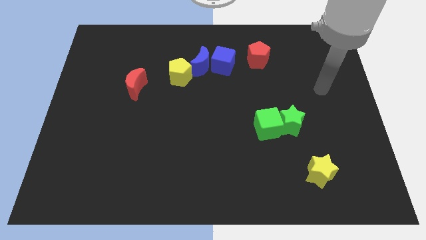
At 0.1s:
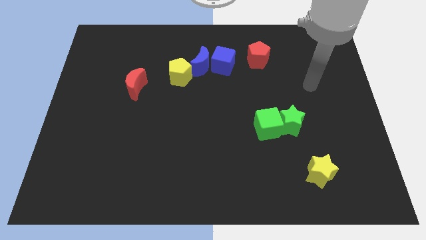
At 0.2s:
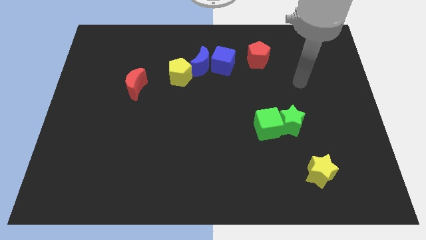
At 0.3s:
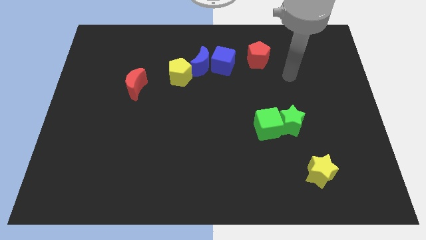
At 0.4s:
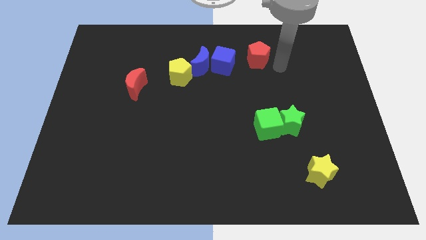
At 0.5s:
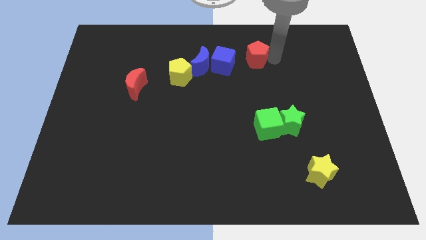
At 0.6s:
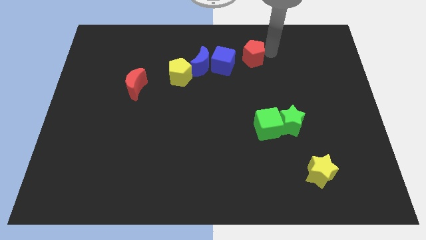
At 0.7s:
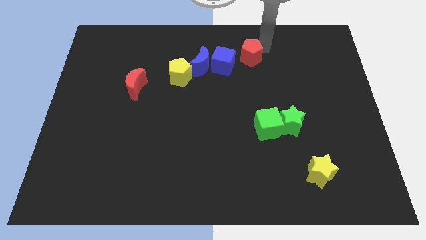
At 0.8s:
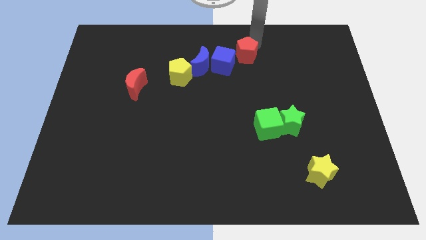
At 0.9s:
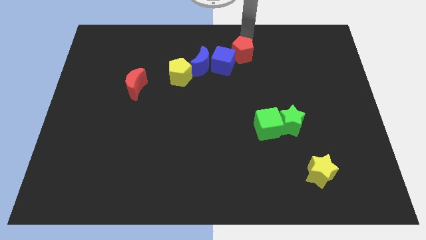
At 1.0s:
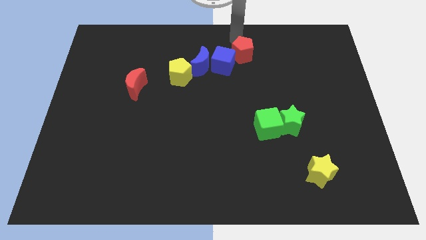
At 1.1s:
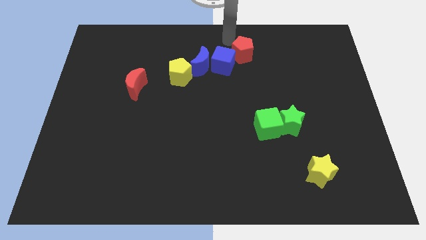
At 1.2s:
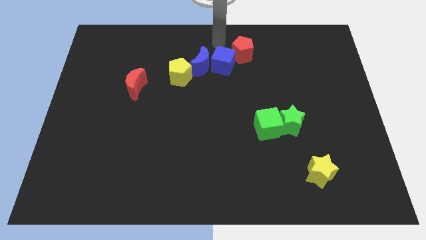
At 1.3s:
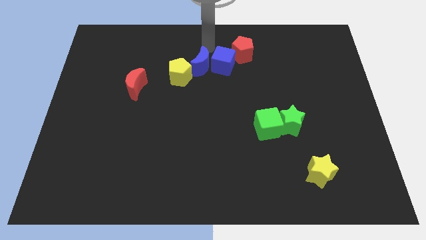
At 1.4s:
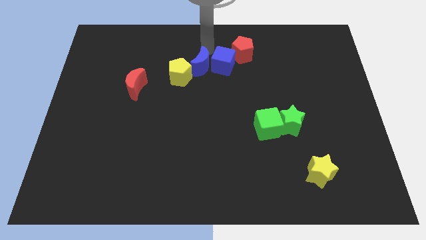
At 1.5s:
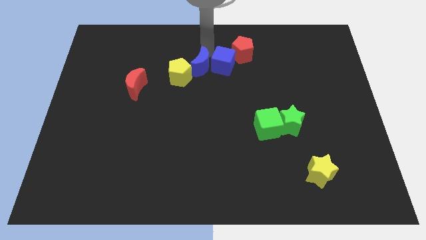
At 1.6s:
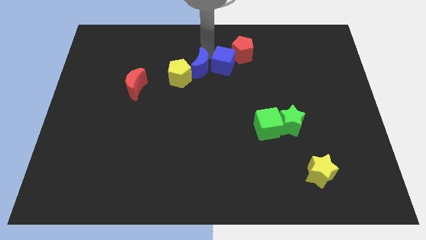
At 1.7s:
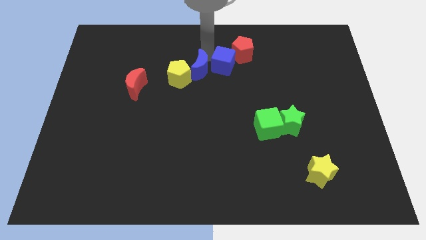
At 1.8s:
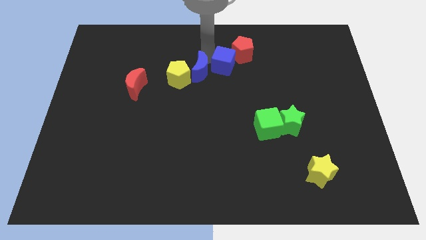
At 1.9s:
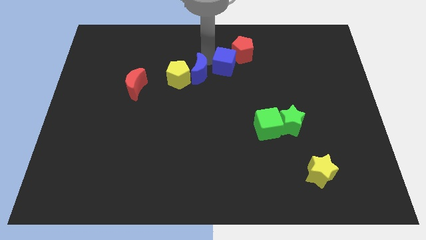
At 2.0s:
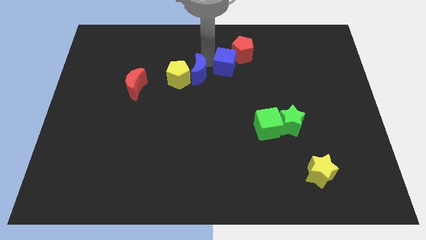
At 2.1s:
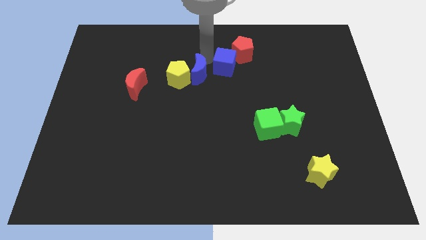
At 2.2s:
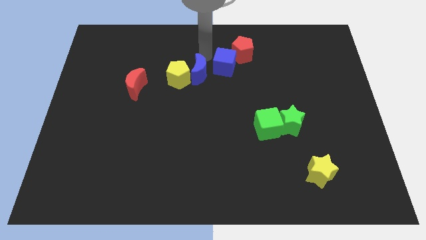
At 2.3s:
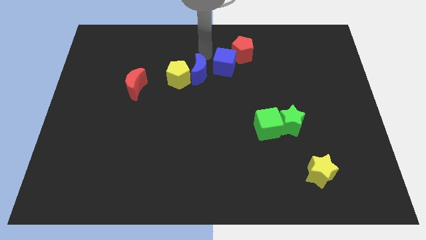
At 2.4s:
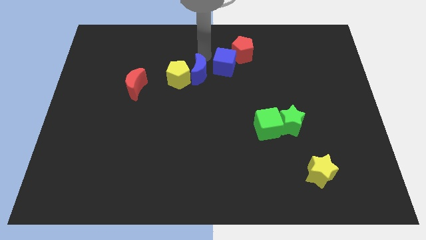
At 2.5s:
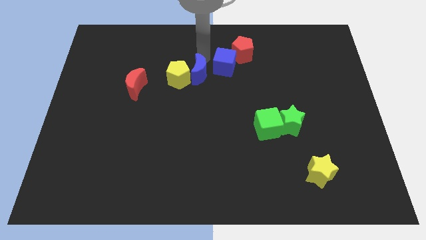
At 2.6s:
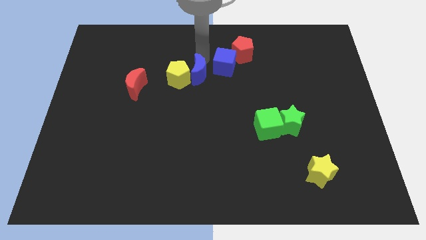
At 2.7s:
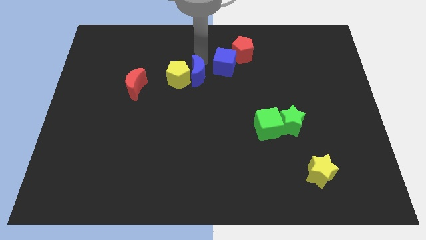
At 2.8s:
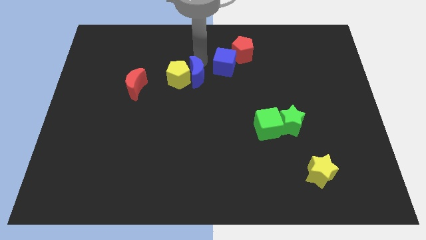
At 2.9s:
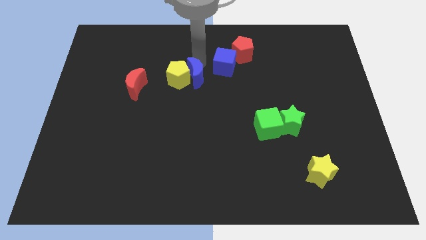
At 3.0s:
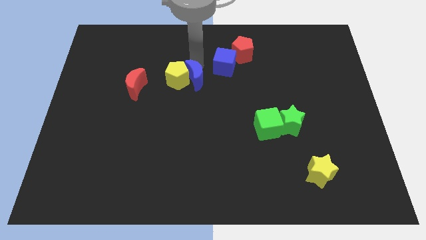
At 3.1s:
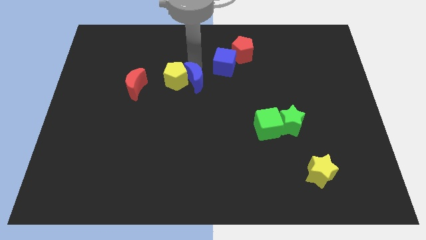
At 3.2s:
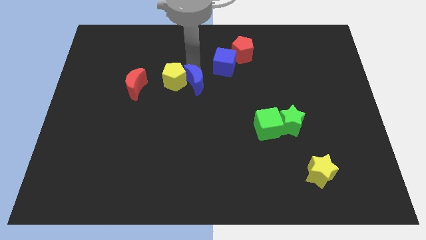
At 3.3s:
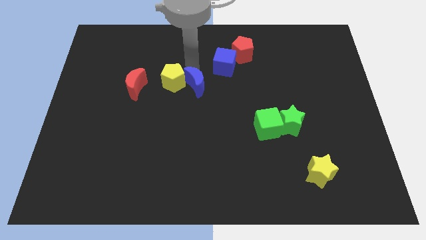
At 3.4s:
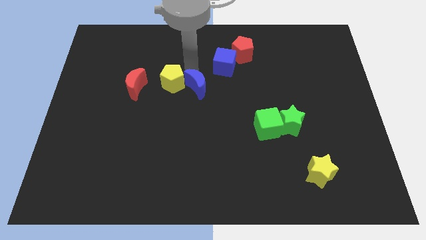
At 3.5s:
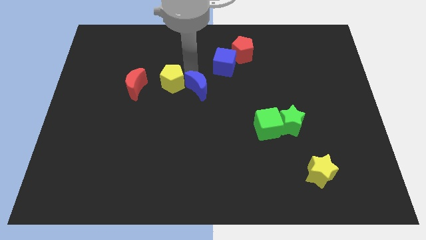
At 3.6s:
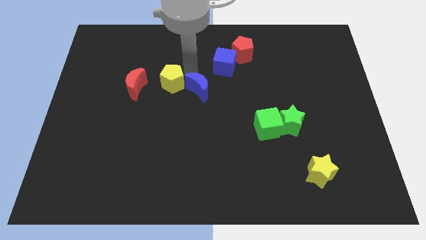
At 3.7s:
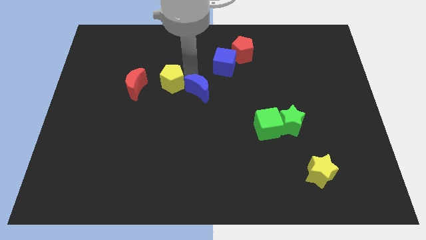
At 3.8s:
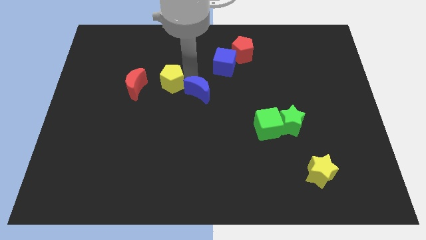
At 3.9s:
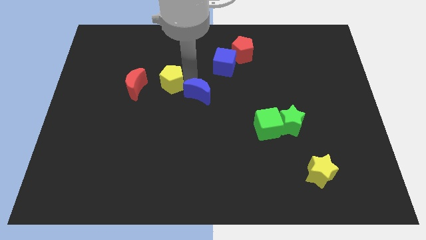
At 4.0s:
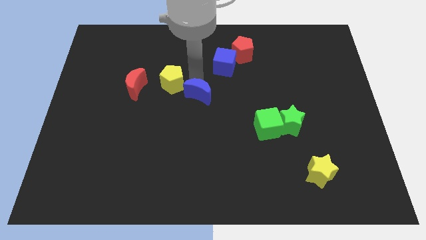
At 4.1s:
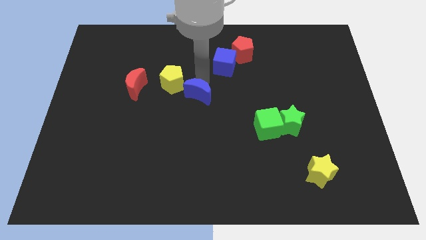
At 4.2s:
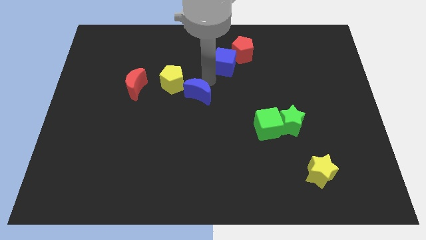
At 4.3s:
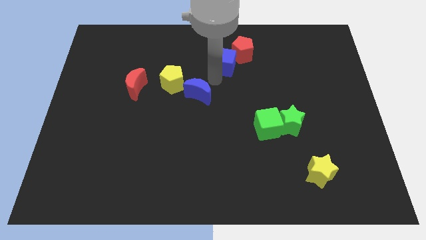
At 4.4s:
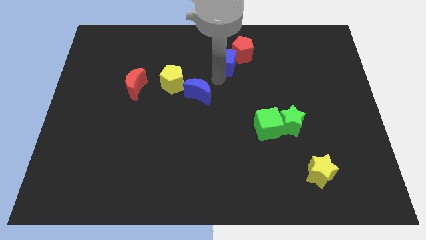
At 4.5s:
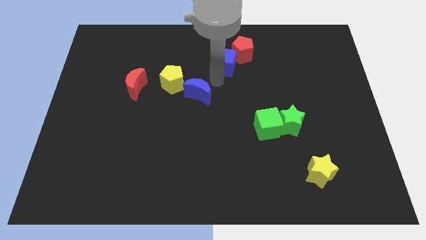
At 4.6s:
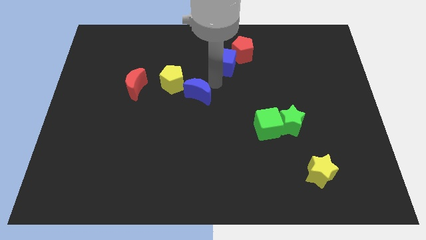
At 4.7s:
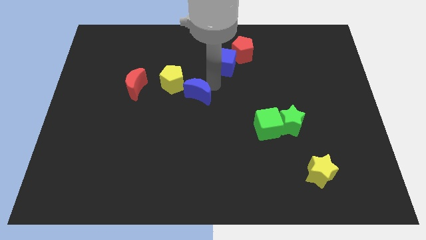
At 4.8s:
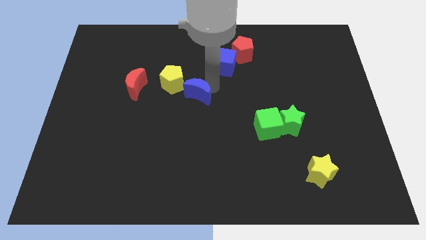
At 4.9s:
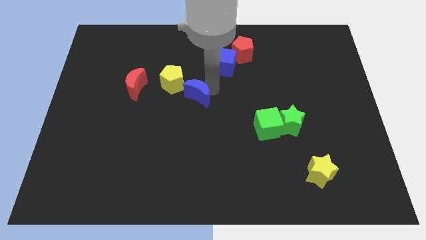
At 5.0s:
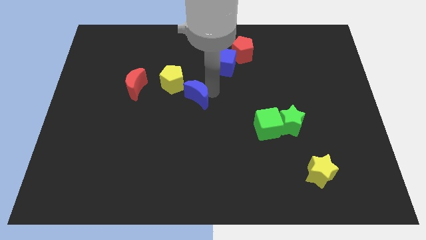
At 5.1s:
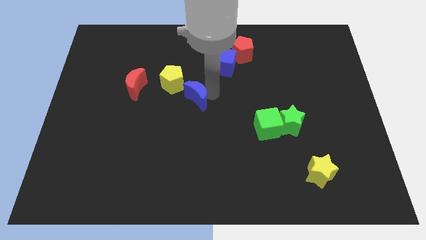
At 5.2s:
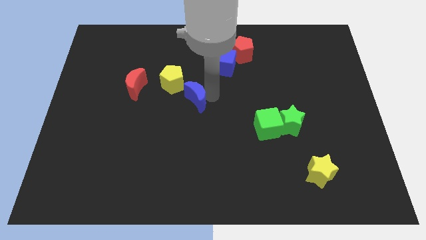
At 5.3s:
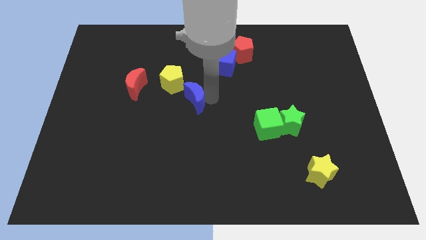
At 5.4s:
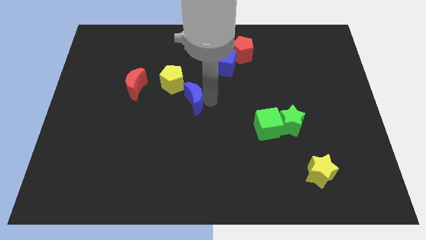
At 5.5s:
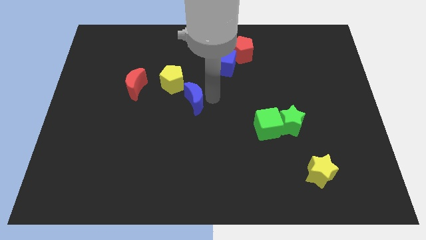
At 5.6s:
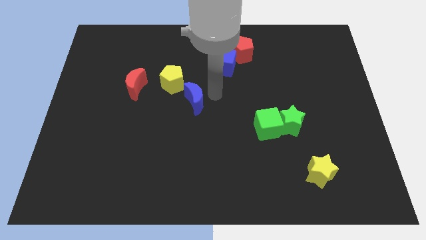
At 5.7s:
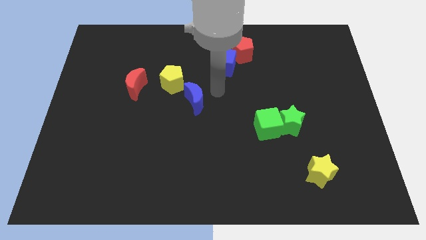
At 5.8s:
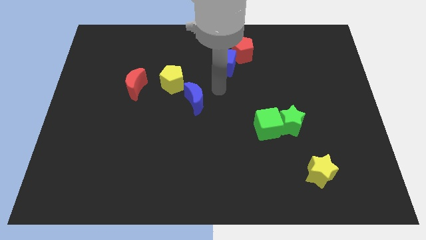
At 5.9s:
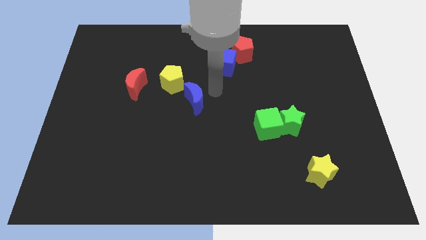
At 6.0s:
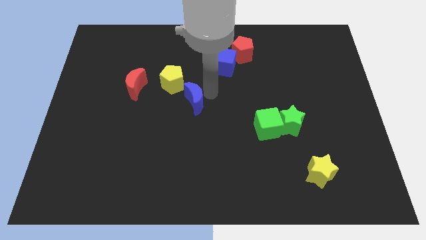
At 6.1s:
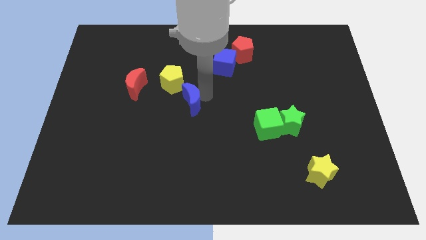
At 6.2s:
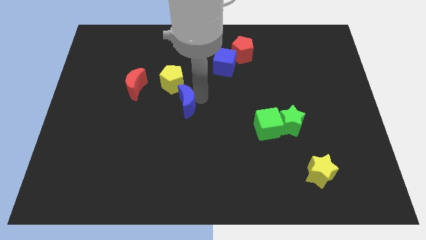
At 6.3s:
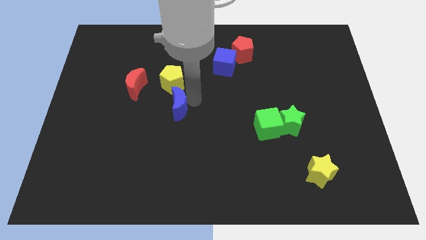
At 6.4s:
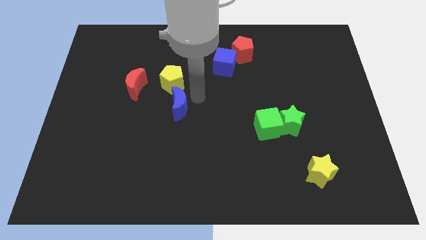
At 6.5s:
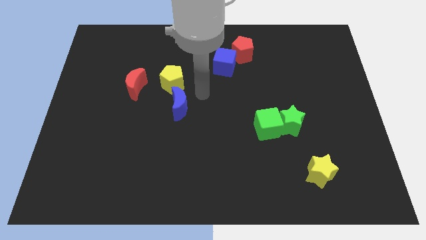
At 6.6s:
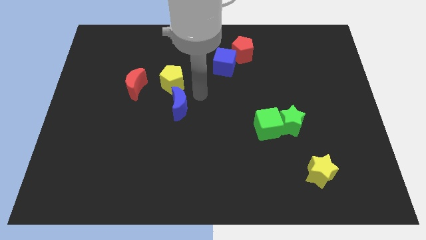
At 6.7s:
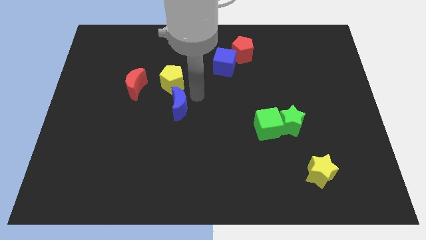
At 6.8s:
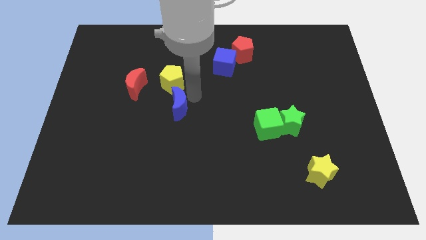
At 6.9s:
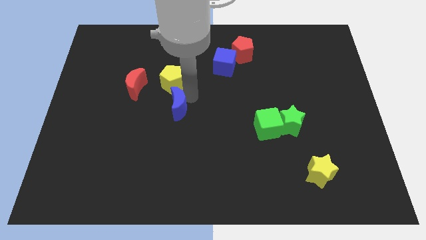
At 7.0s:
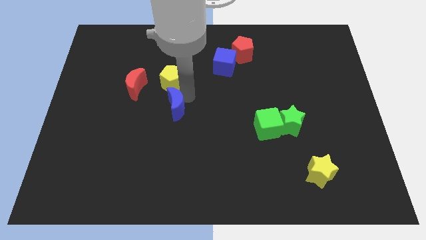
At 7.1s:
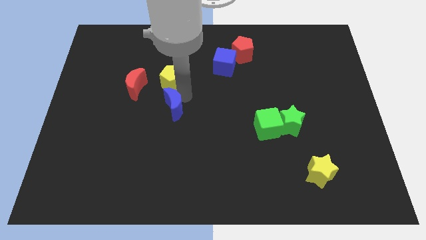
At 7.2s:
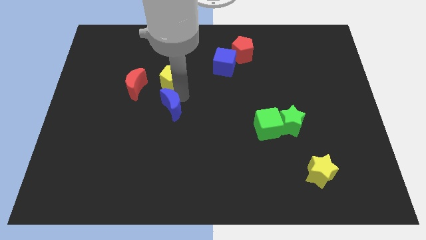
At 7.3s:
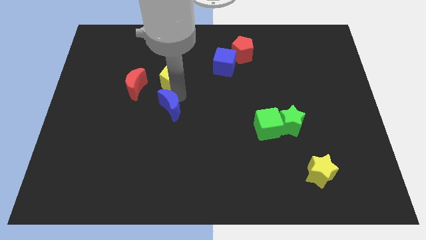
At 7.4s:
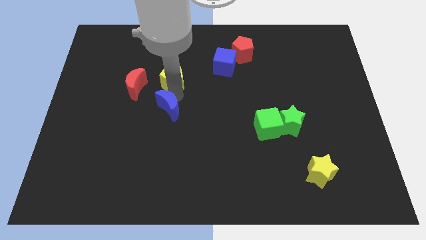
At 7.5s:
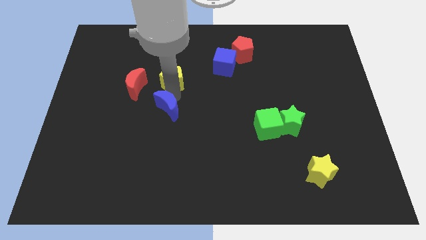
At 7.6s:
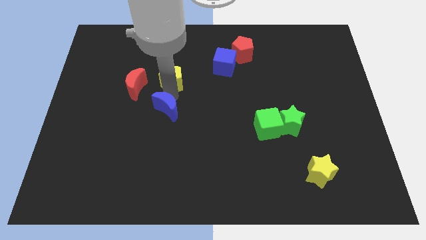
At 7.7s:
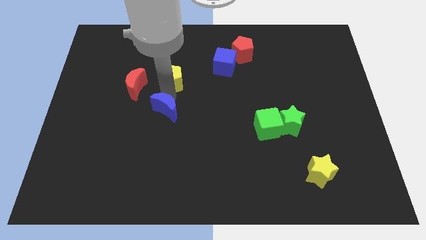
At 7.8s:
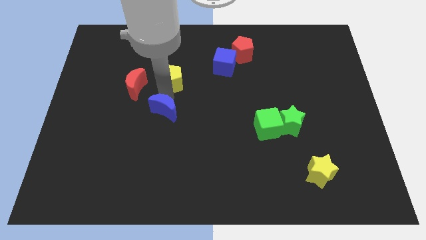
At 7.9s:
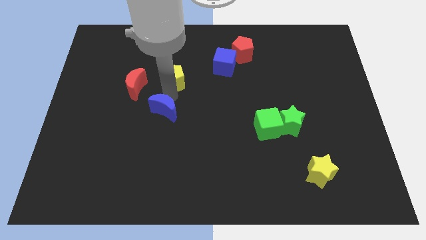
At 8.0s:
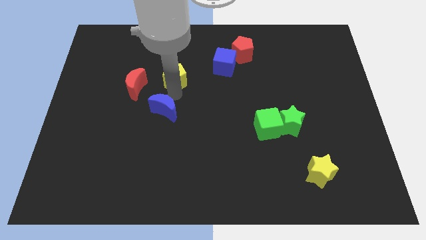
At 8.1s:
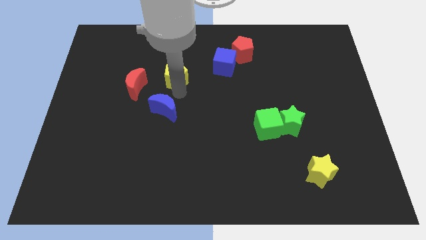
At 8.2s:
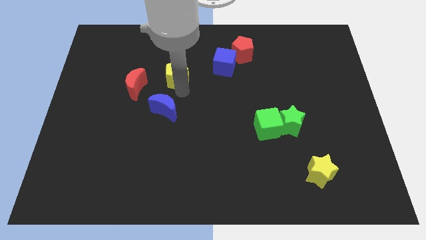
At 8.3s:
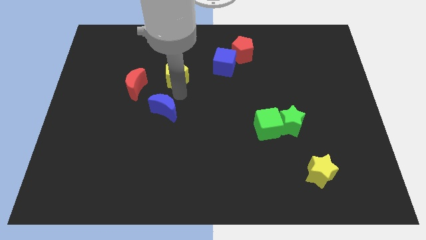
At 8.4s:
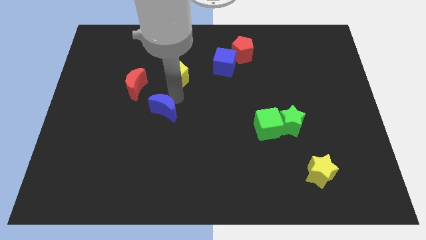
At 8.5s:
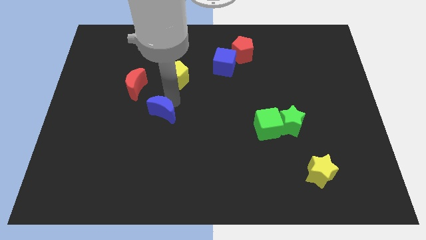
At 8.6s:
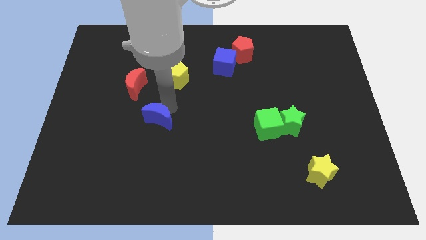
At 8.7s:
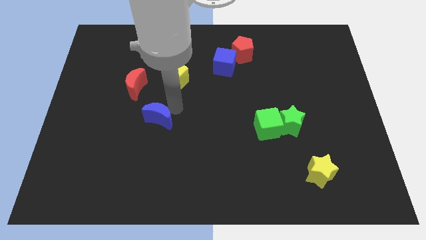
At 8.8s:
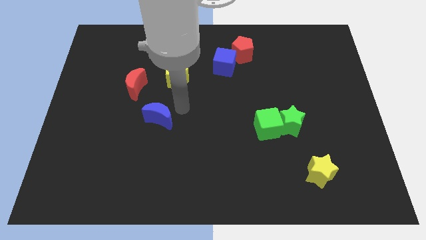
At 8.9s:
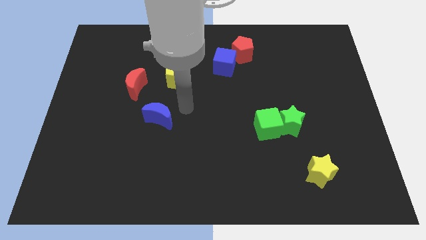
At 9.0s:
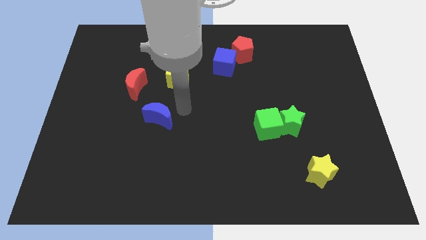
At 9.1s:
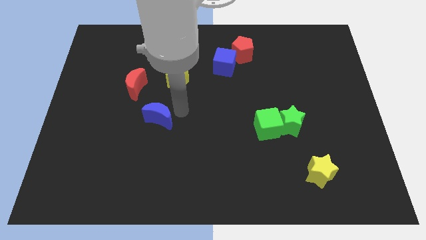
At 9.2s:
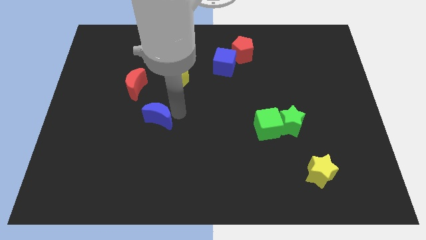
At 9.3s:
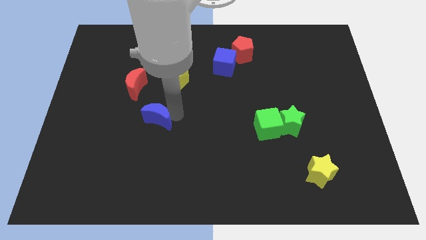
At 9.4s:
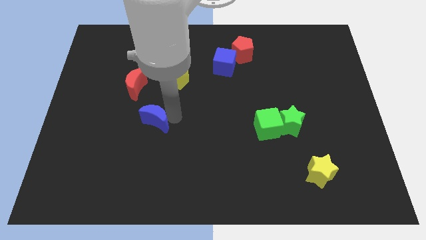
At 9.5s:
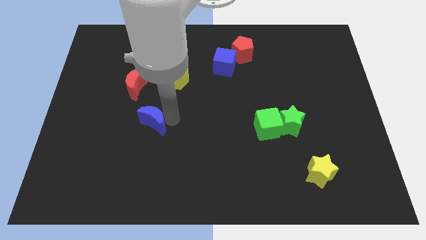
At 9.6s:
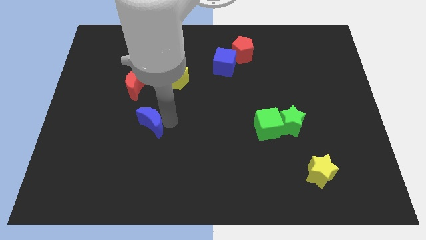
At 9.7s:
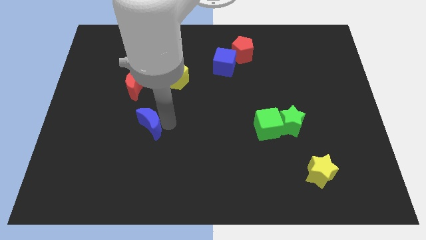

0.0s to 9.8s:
move the blue moon downwards and left
